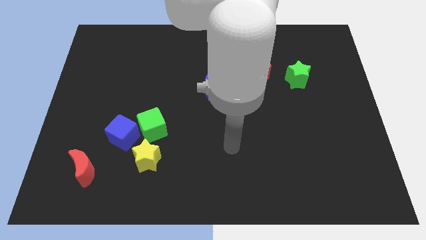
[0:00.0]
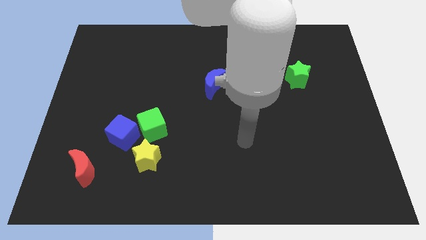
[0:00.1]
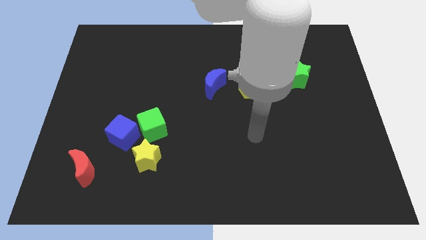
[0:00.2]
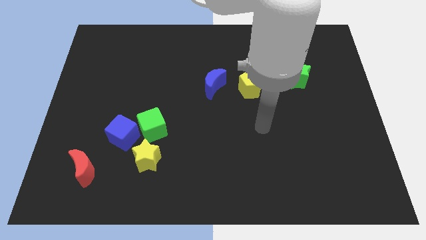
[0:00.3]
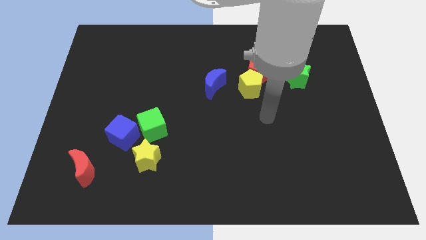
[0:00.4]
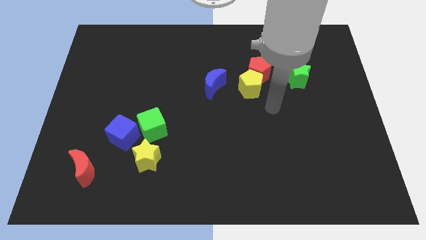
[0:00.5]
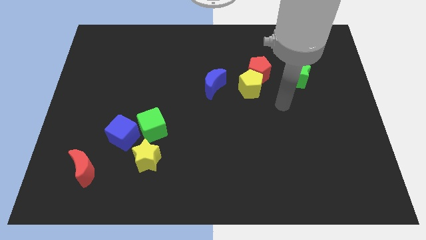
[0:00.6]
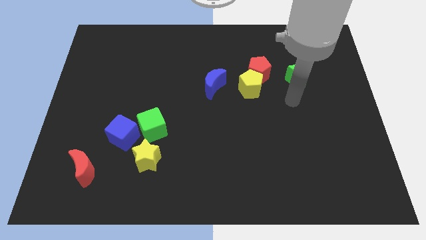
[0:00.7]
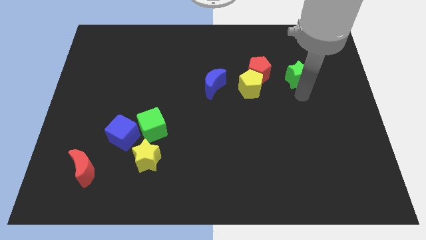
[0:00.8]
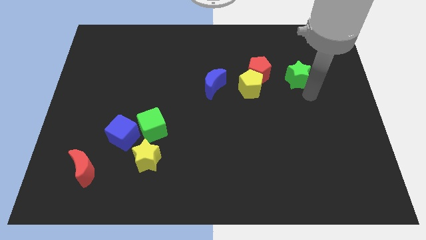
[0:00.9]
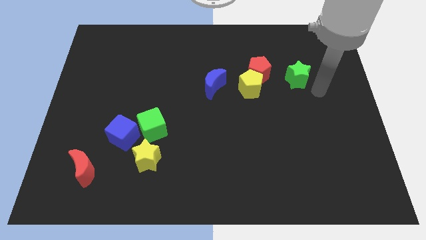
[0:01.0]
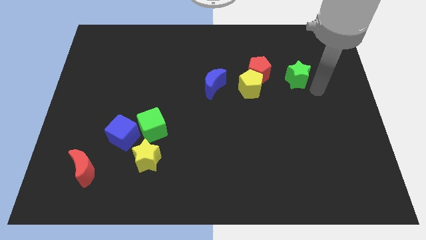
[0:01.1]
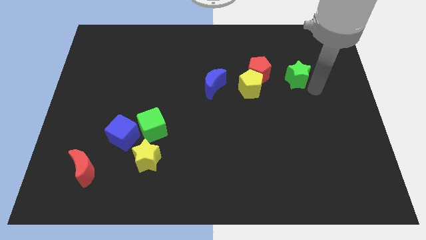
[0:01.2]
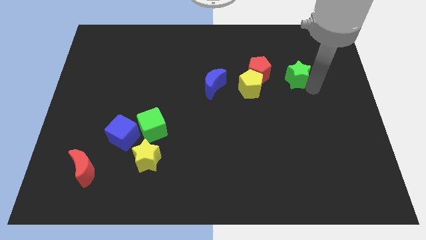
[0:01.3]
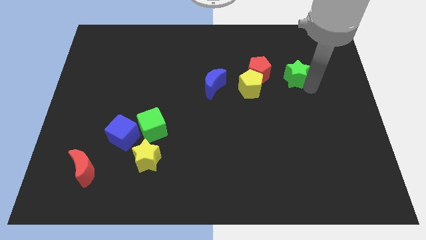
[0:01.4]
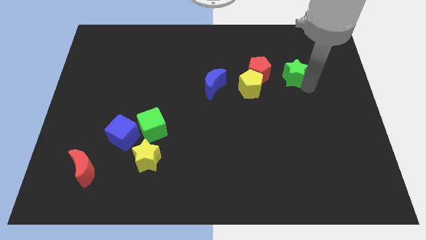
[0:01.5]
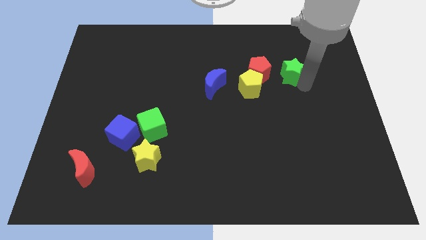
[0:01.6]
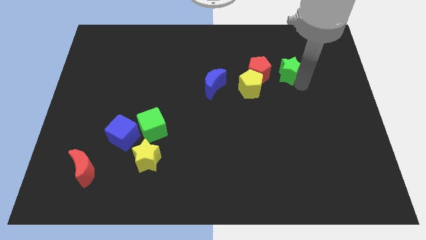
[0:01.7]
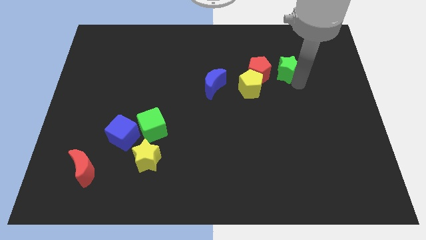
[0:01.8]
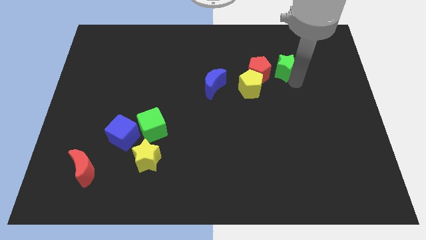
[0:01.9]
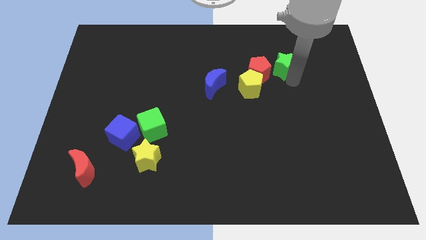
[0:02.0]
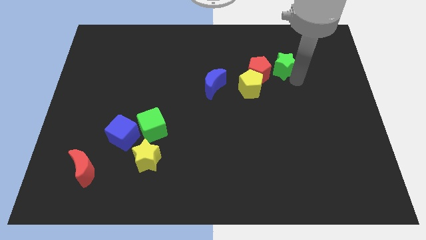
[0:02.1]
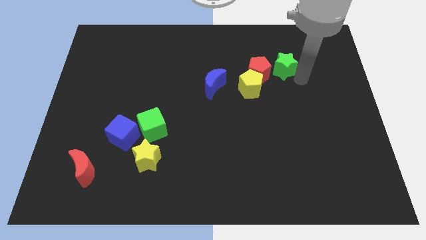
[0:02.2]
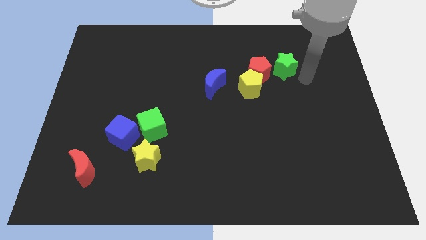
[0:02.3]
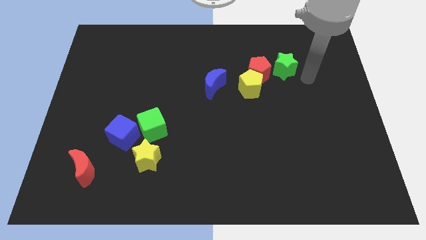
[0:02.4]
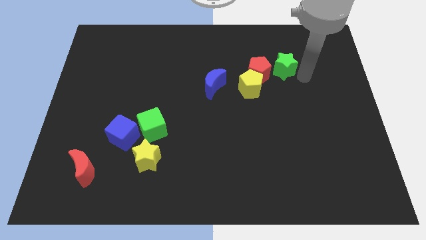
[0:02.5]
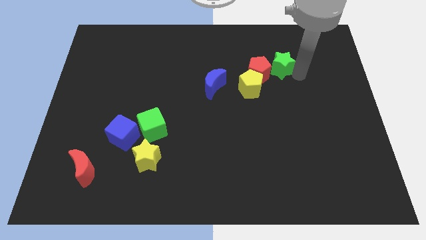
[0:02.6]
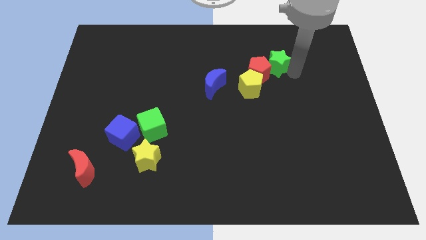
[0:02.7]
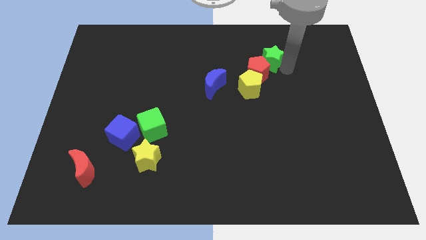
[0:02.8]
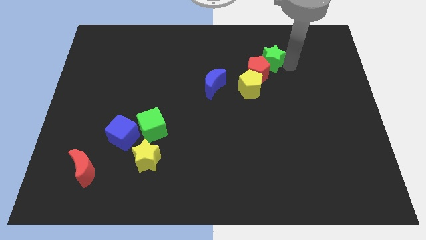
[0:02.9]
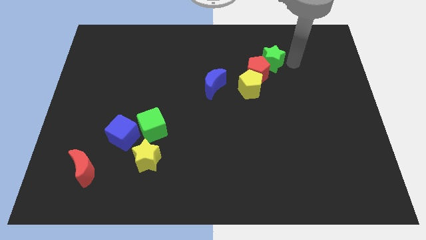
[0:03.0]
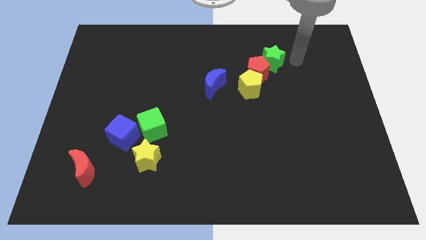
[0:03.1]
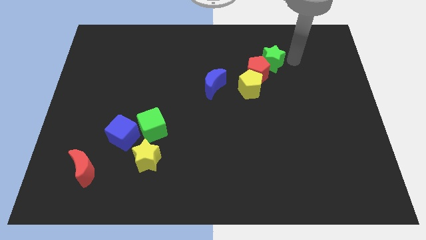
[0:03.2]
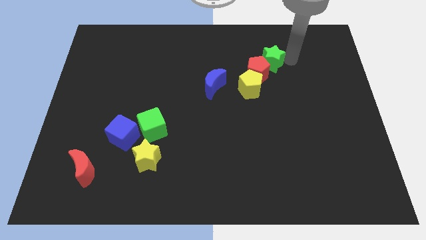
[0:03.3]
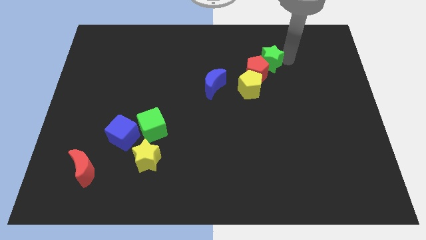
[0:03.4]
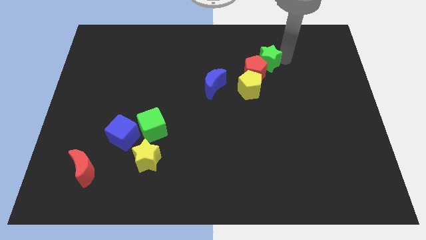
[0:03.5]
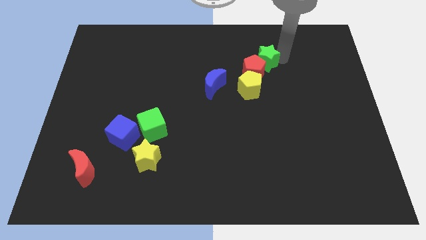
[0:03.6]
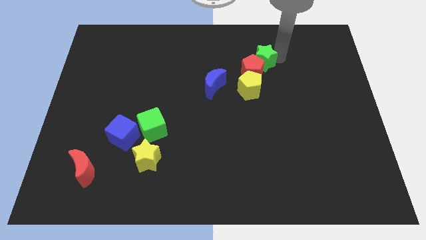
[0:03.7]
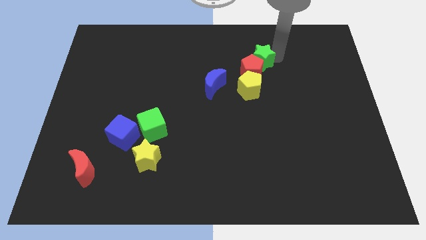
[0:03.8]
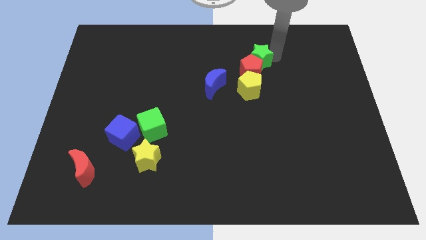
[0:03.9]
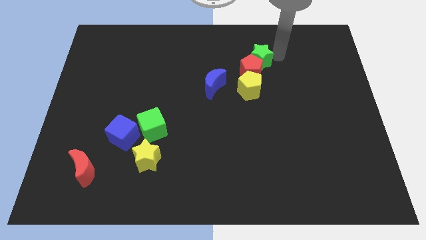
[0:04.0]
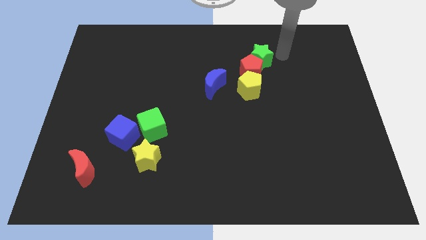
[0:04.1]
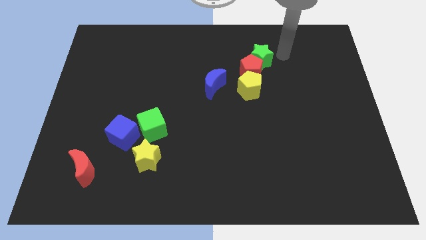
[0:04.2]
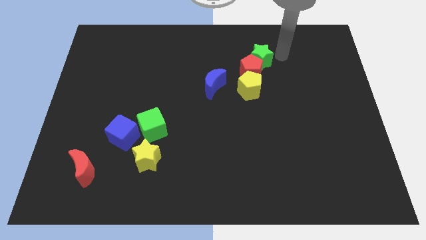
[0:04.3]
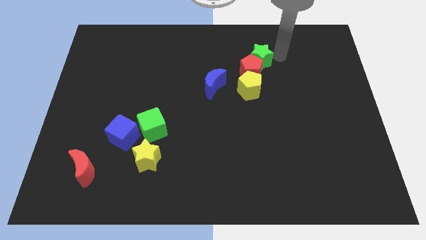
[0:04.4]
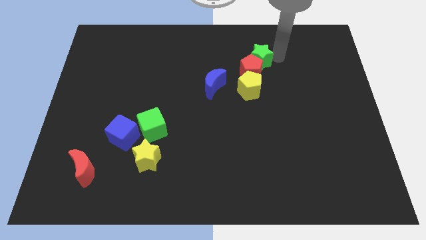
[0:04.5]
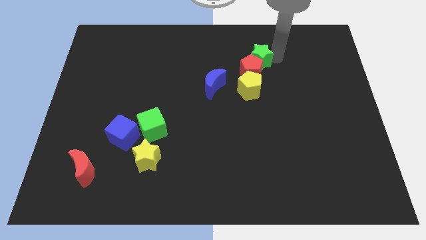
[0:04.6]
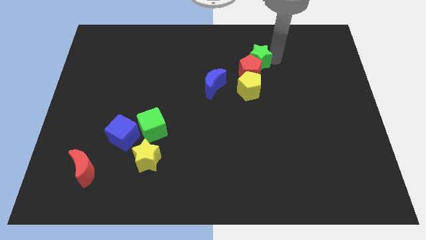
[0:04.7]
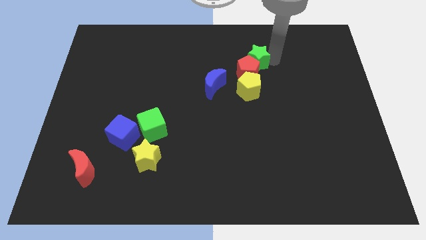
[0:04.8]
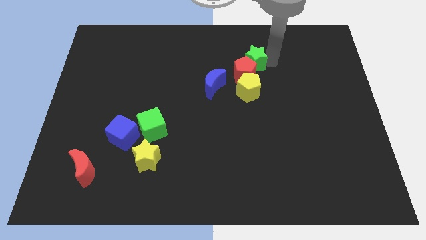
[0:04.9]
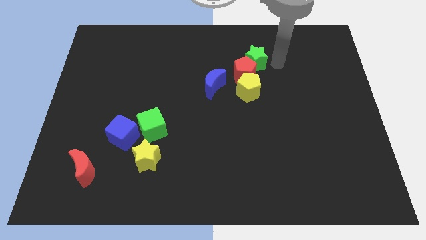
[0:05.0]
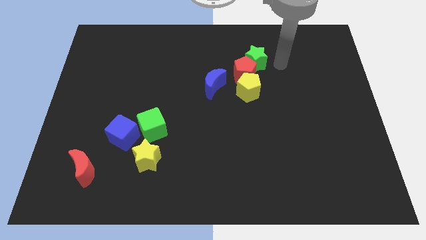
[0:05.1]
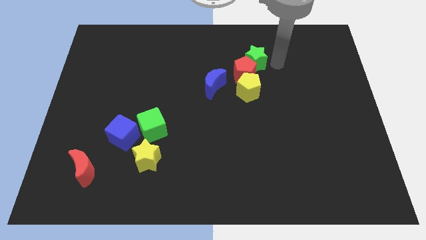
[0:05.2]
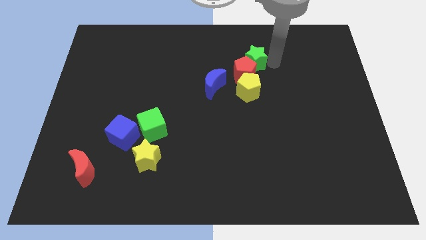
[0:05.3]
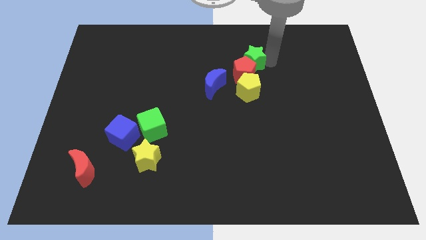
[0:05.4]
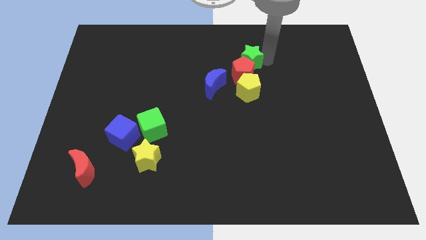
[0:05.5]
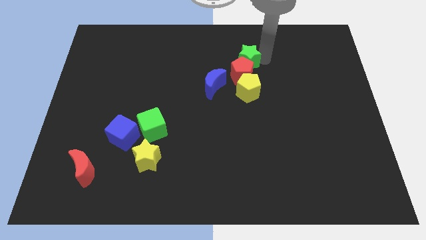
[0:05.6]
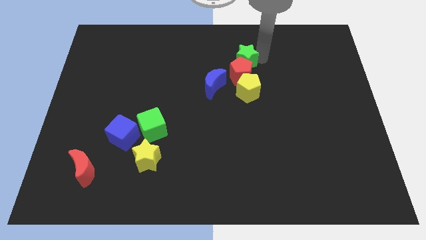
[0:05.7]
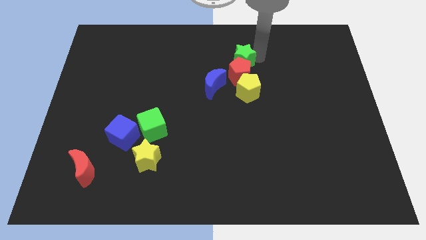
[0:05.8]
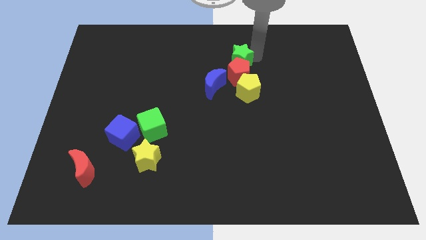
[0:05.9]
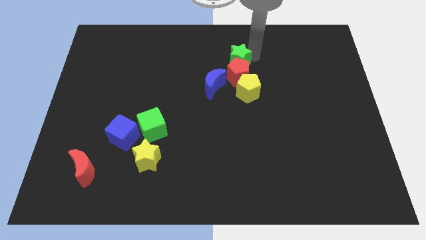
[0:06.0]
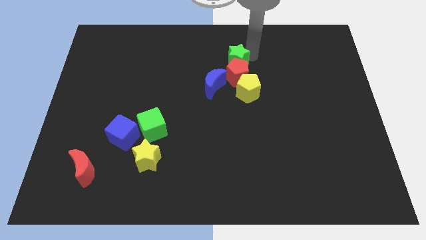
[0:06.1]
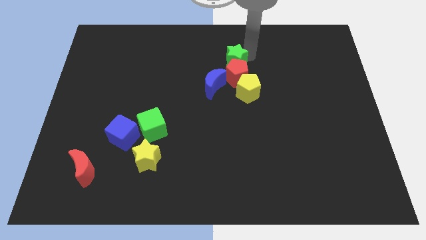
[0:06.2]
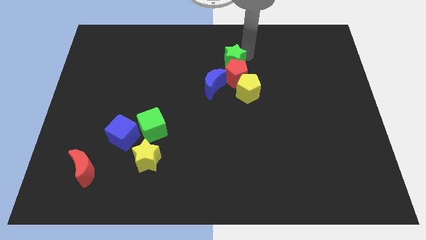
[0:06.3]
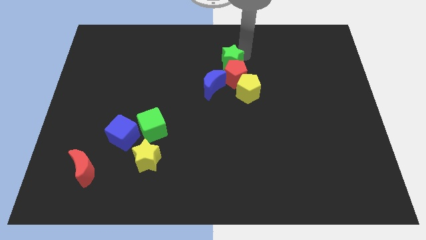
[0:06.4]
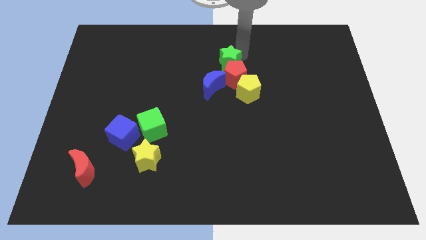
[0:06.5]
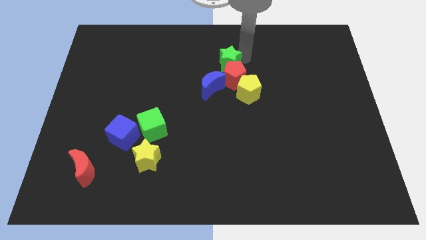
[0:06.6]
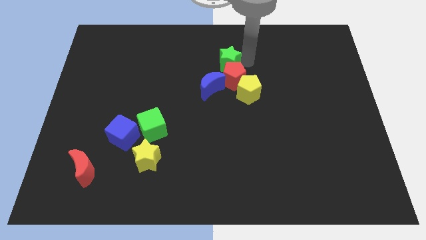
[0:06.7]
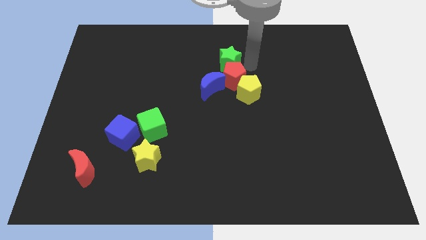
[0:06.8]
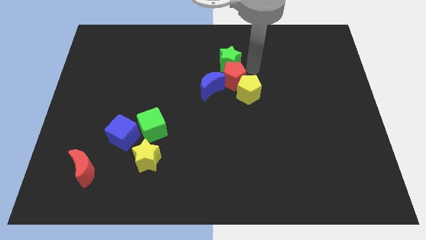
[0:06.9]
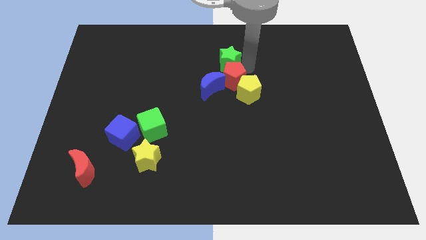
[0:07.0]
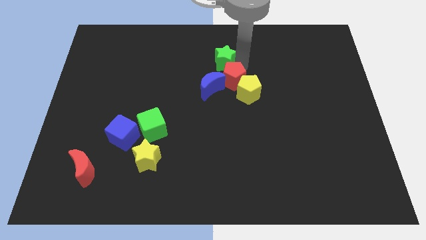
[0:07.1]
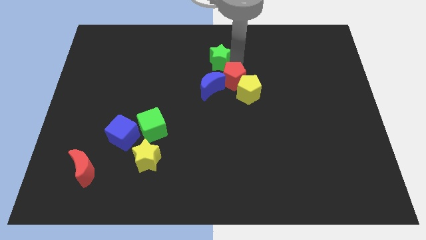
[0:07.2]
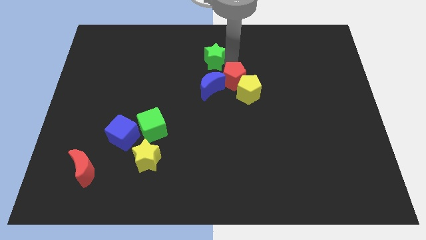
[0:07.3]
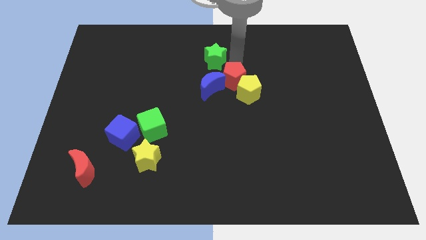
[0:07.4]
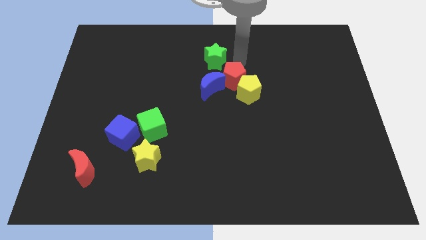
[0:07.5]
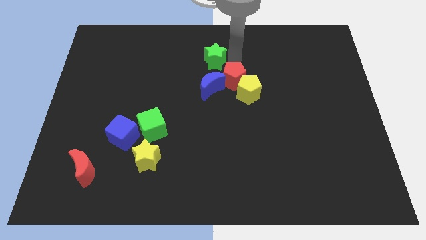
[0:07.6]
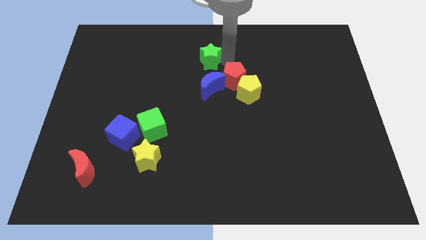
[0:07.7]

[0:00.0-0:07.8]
push the green star left

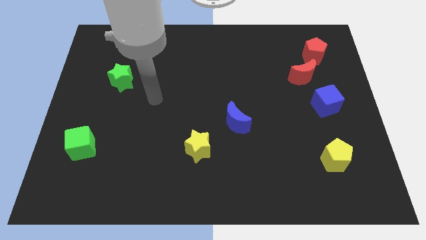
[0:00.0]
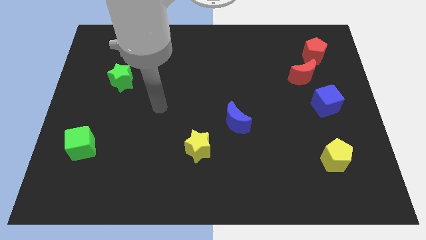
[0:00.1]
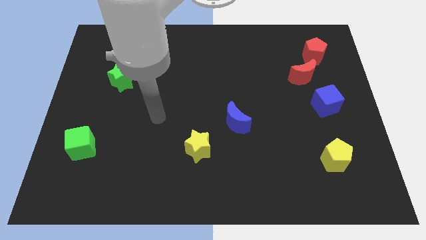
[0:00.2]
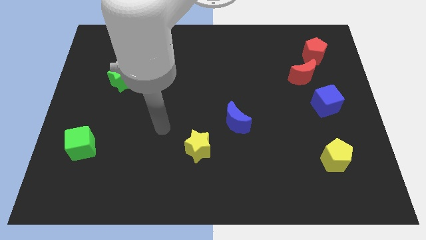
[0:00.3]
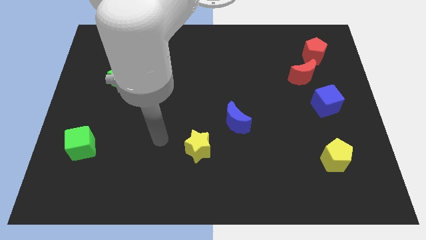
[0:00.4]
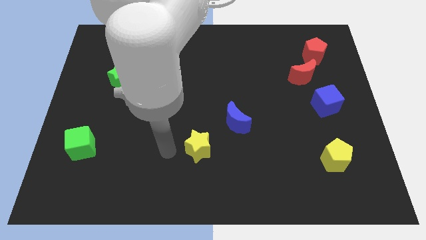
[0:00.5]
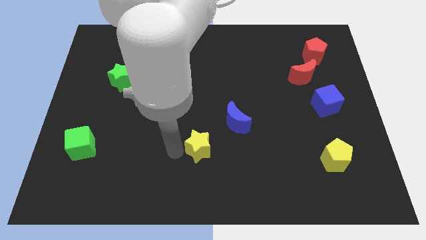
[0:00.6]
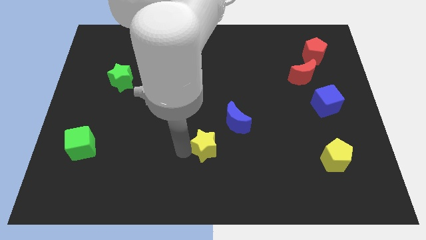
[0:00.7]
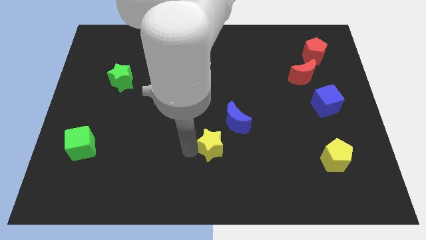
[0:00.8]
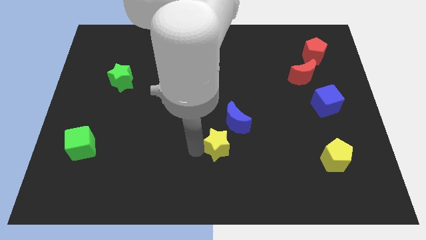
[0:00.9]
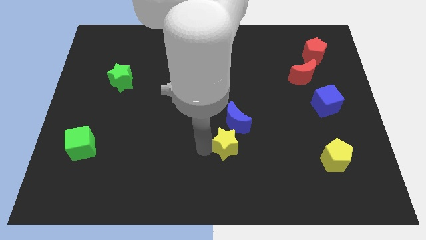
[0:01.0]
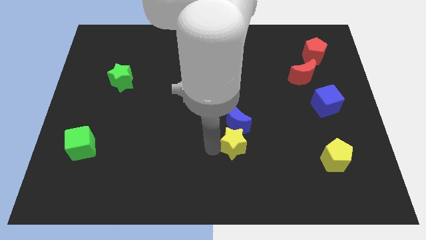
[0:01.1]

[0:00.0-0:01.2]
push the yellow star right a little bit
